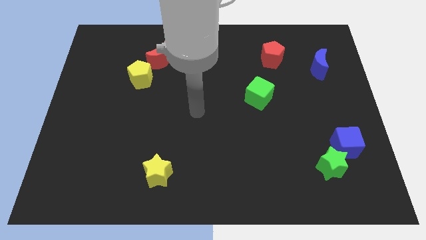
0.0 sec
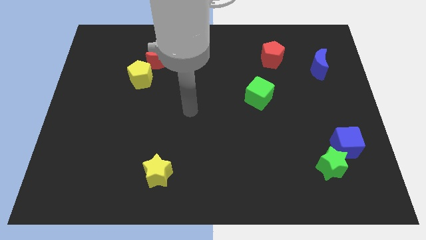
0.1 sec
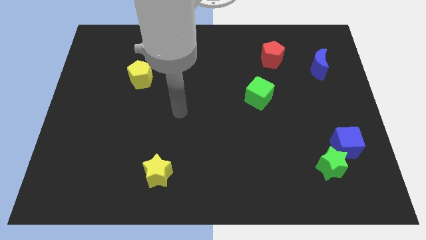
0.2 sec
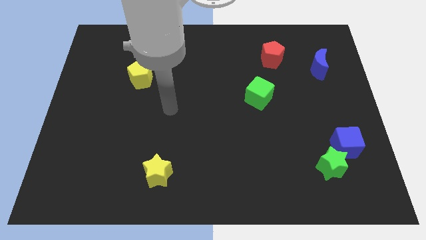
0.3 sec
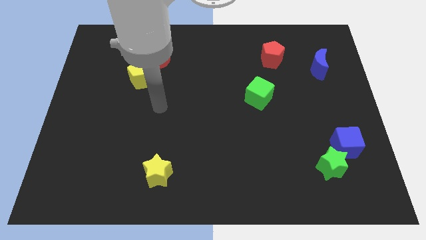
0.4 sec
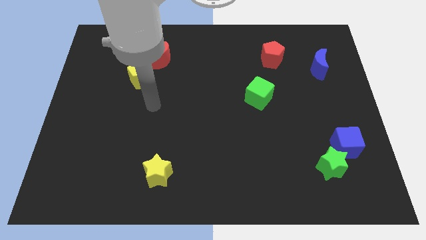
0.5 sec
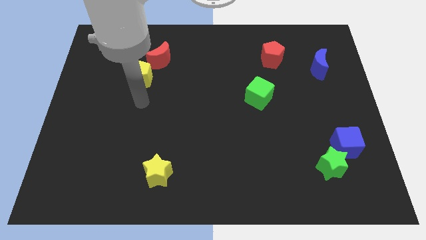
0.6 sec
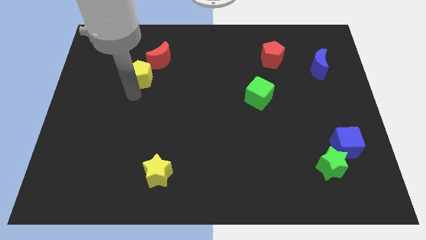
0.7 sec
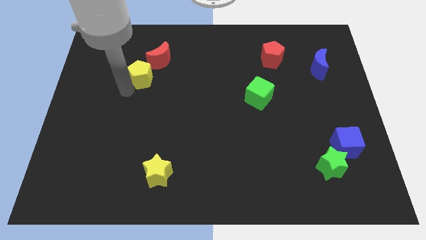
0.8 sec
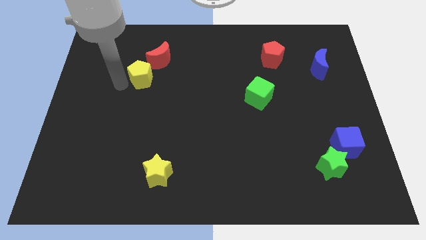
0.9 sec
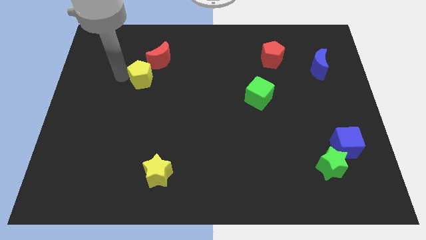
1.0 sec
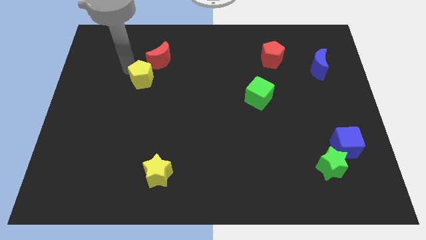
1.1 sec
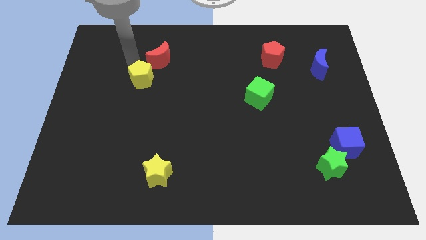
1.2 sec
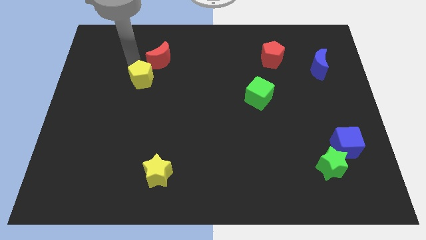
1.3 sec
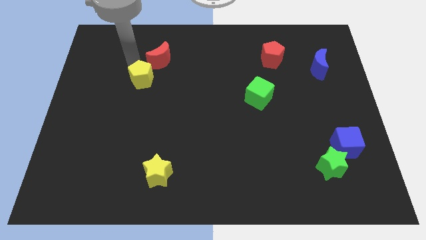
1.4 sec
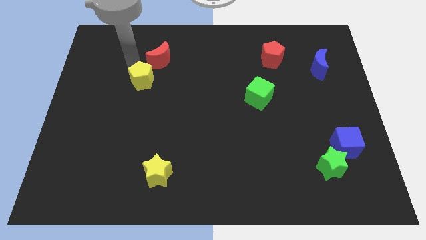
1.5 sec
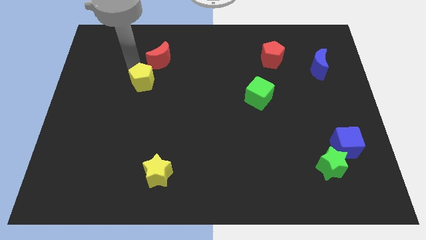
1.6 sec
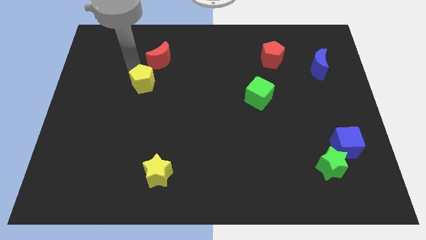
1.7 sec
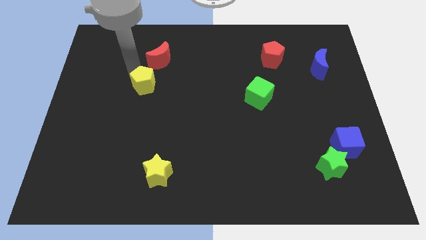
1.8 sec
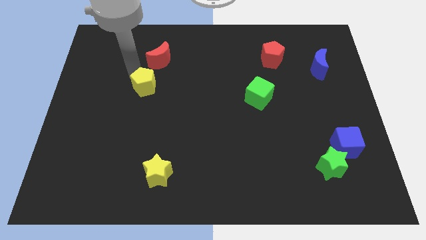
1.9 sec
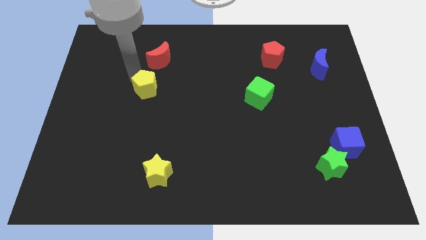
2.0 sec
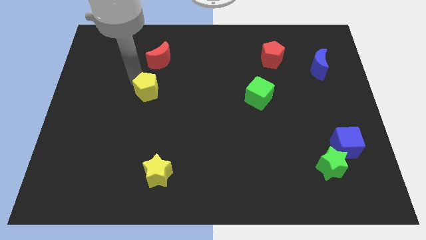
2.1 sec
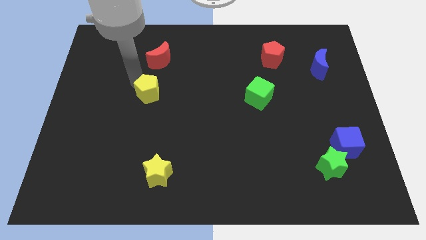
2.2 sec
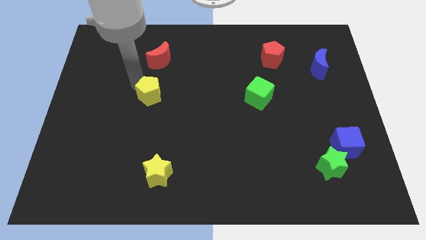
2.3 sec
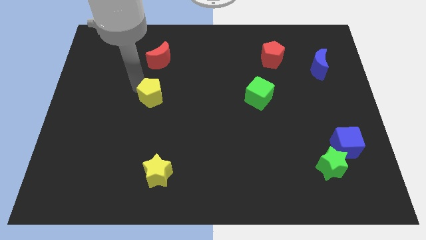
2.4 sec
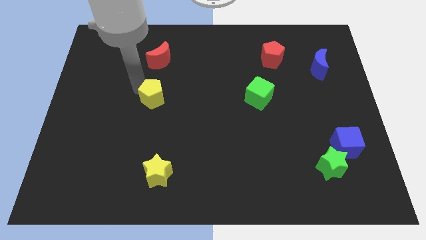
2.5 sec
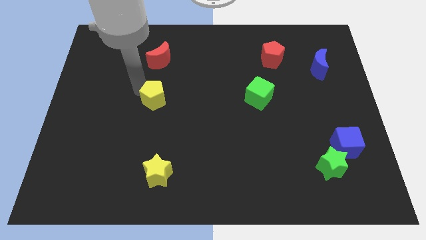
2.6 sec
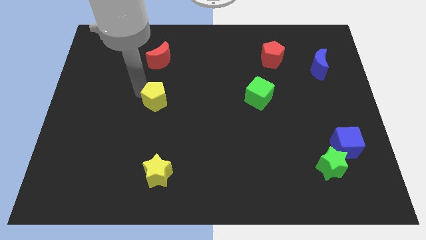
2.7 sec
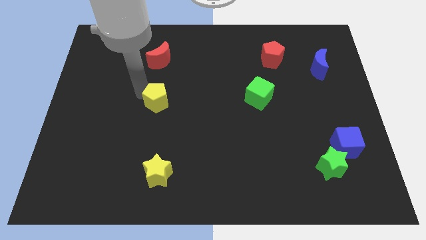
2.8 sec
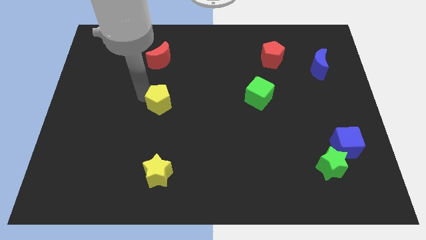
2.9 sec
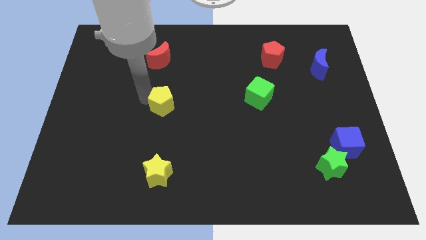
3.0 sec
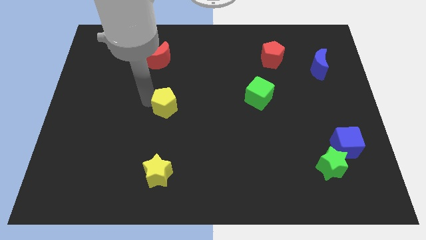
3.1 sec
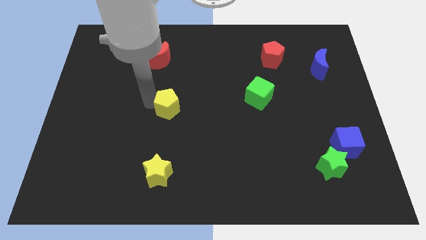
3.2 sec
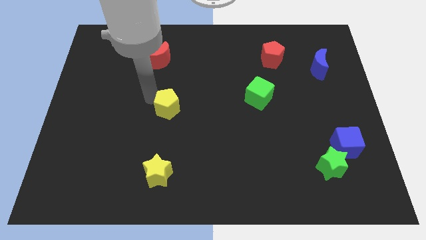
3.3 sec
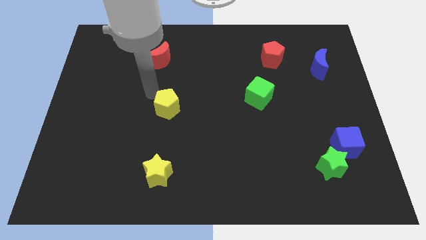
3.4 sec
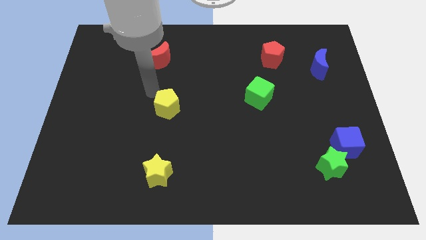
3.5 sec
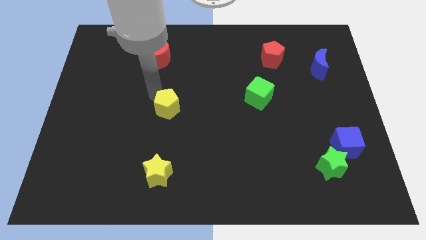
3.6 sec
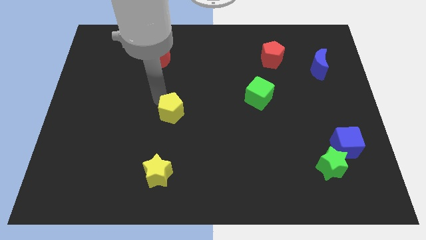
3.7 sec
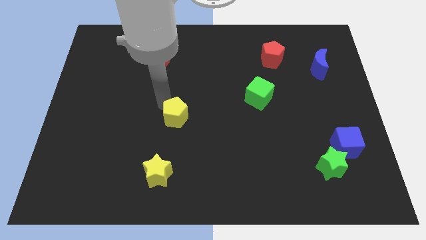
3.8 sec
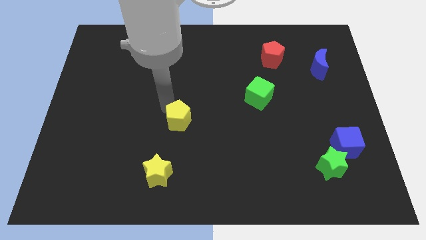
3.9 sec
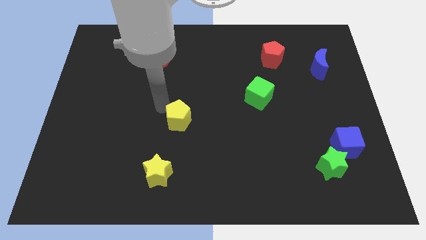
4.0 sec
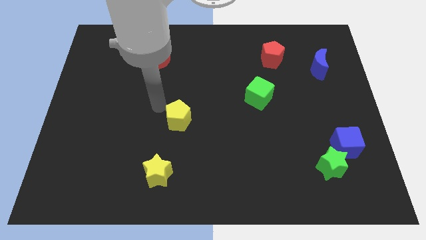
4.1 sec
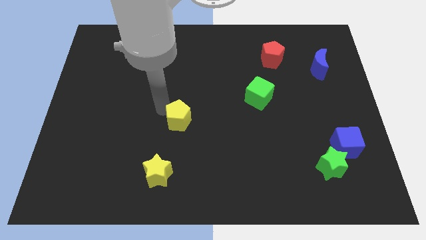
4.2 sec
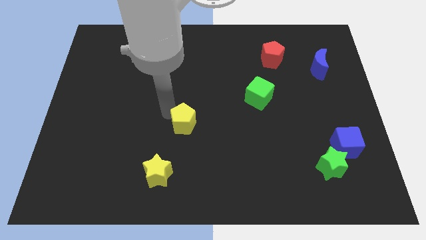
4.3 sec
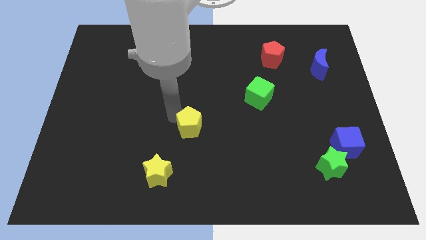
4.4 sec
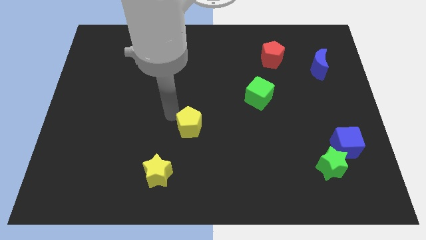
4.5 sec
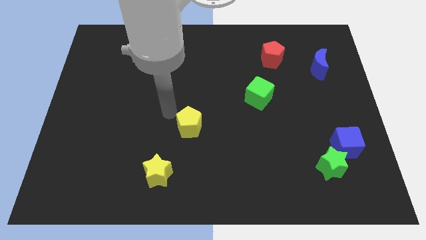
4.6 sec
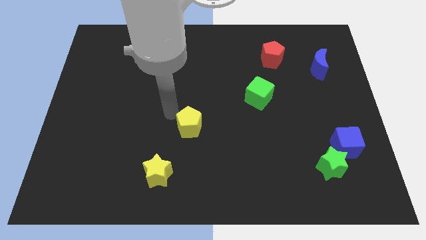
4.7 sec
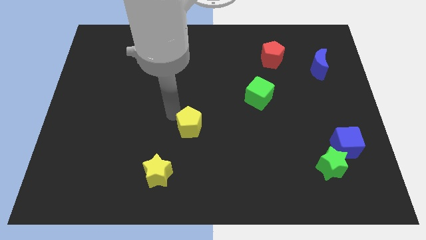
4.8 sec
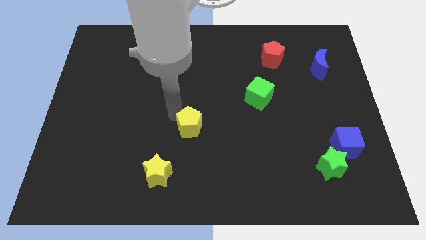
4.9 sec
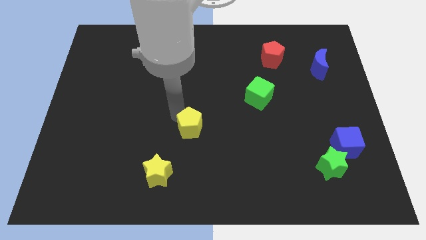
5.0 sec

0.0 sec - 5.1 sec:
move the yellow pentagon down and right

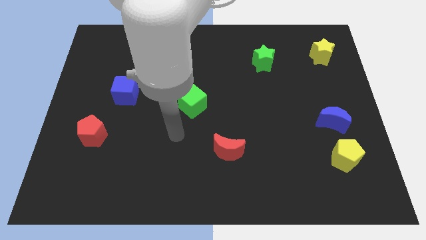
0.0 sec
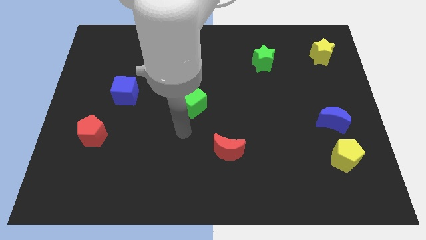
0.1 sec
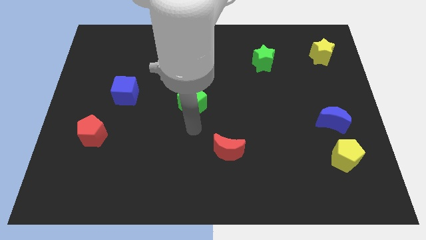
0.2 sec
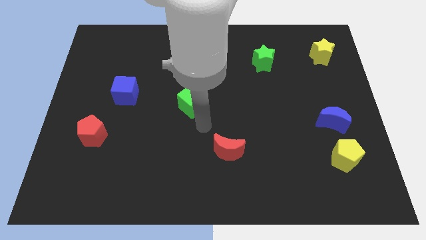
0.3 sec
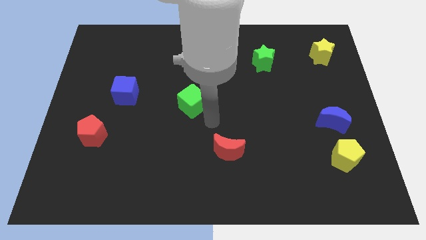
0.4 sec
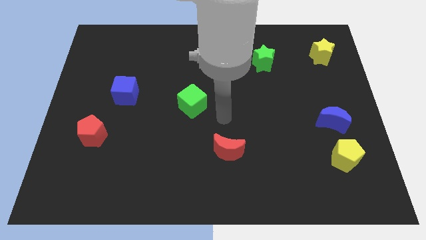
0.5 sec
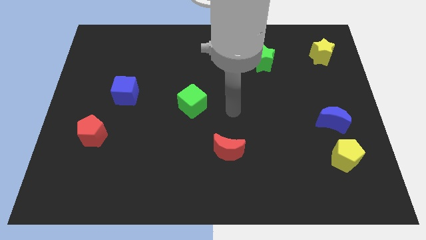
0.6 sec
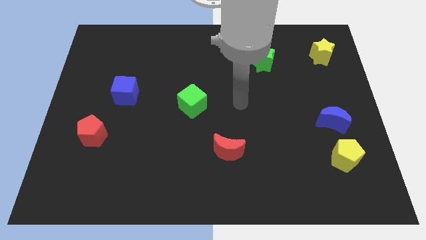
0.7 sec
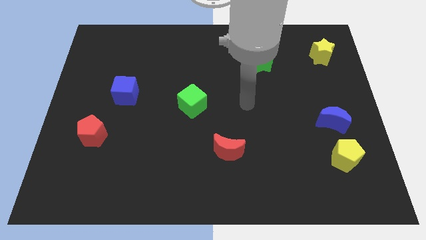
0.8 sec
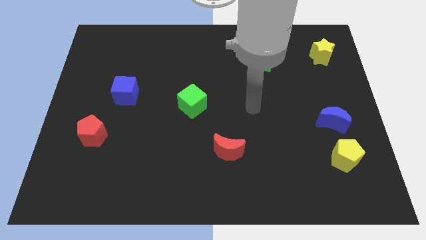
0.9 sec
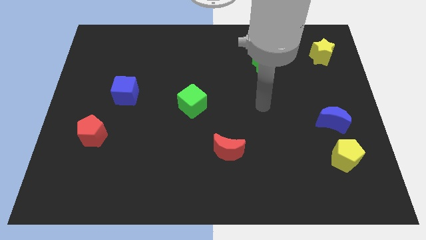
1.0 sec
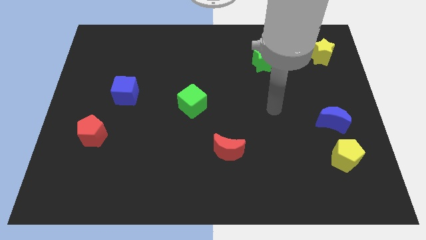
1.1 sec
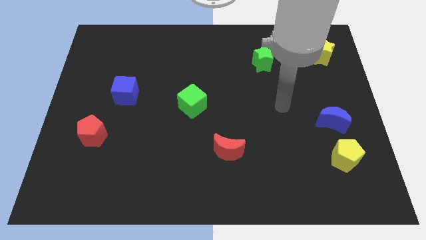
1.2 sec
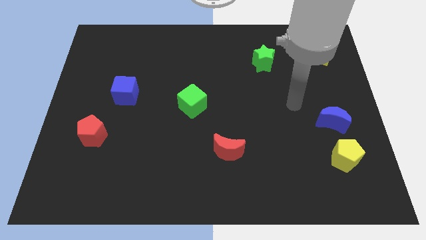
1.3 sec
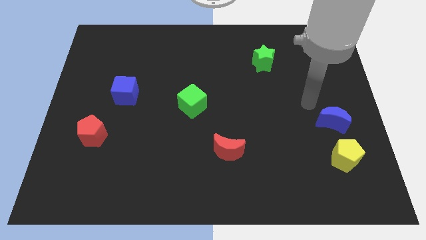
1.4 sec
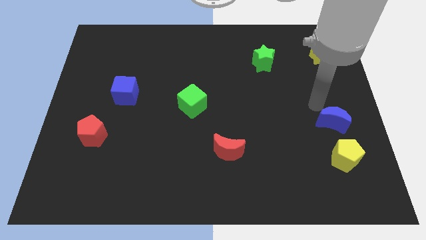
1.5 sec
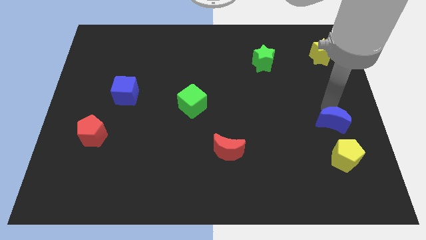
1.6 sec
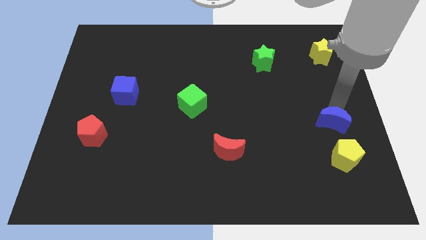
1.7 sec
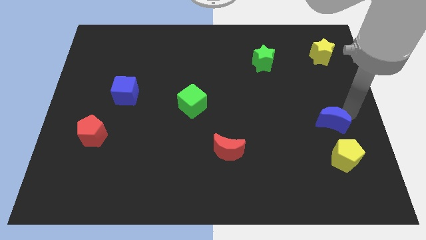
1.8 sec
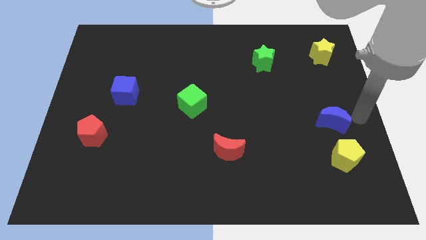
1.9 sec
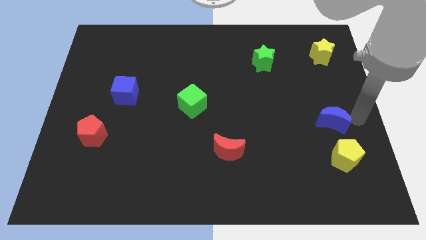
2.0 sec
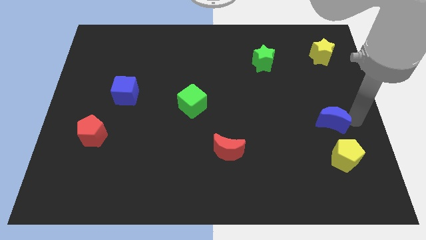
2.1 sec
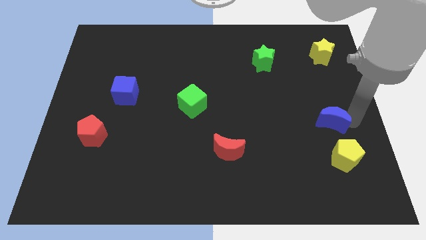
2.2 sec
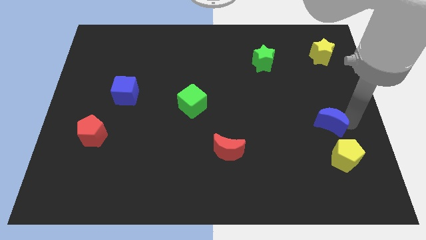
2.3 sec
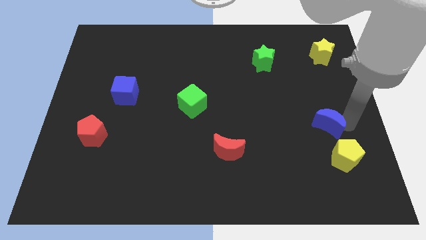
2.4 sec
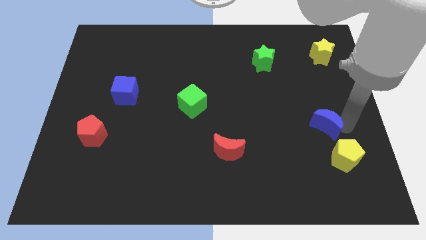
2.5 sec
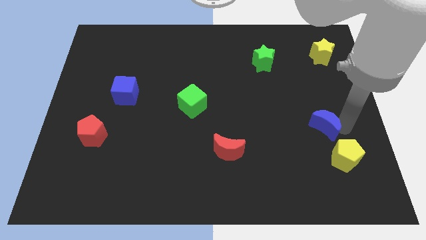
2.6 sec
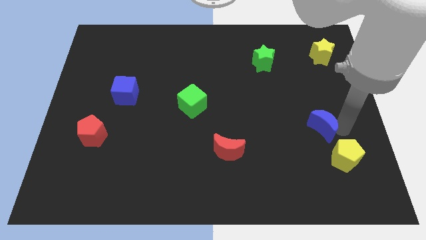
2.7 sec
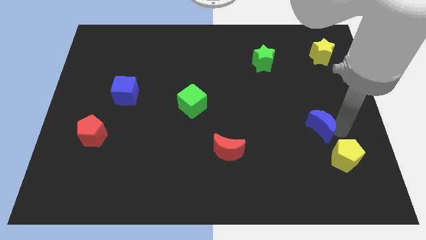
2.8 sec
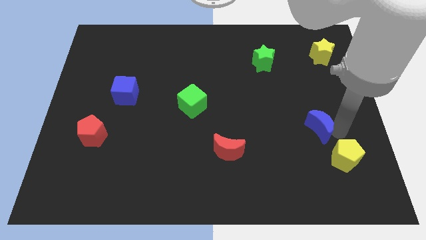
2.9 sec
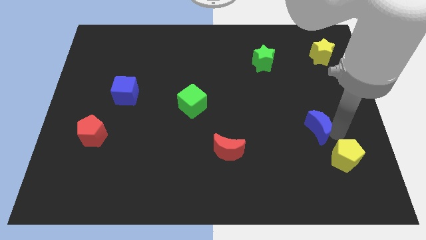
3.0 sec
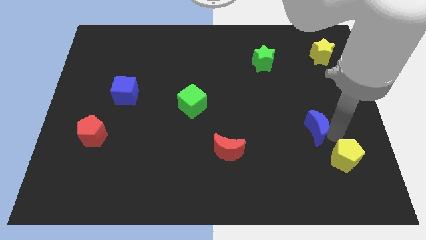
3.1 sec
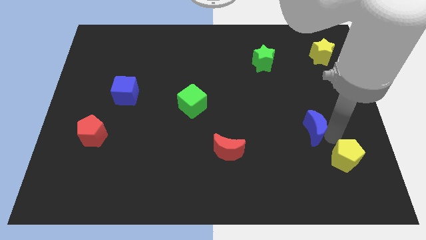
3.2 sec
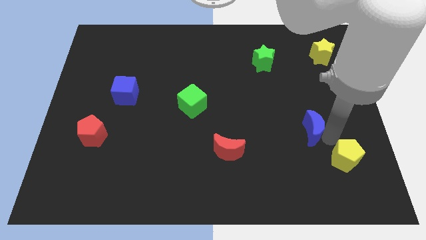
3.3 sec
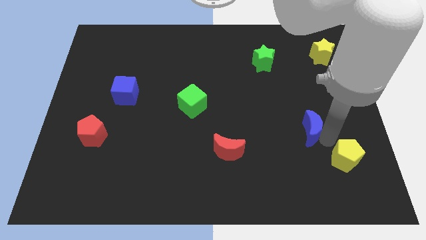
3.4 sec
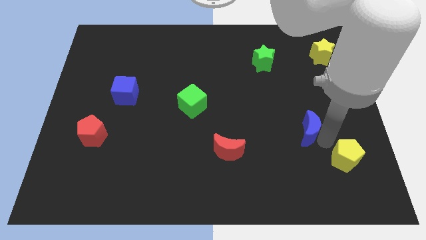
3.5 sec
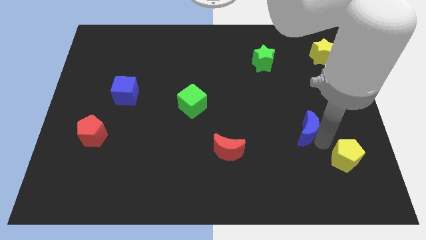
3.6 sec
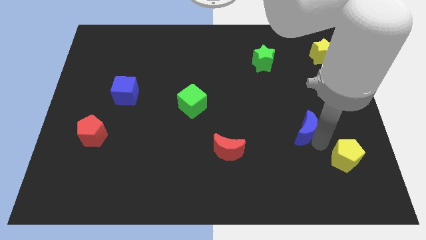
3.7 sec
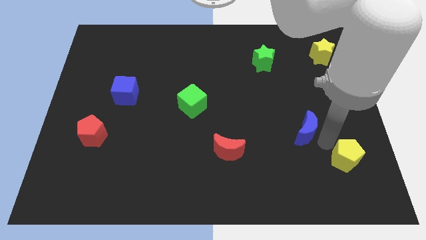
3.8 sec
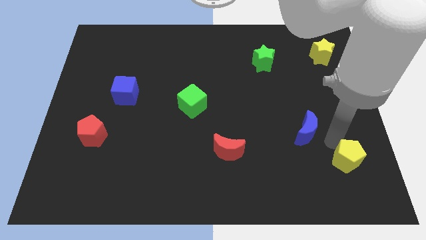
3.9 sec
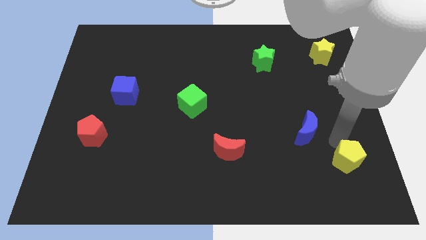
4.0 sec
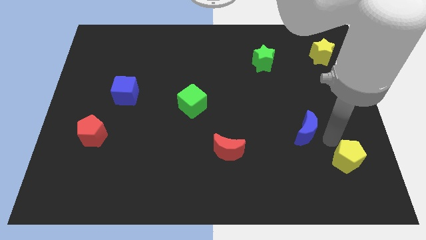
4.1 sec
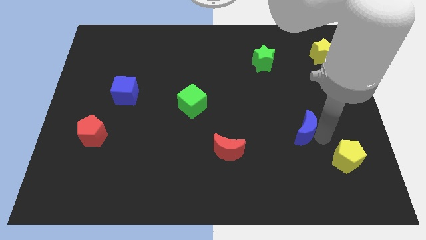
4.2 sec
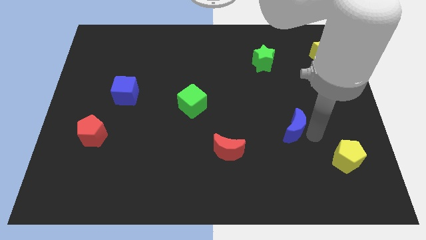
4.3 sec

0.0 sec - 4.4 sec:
push the blue moon to the left somewhat
